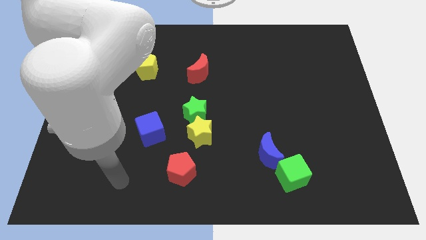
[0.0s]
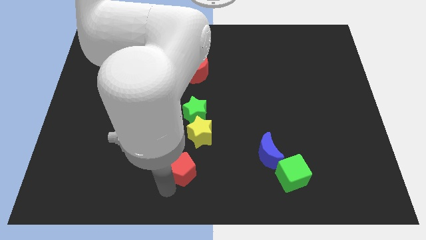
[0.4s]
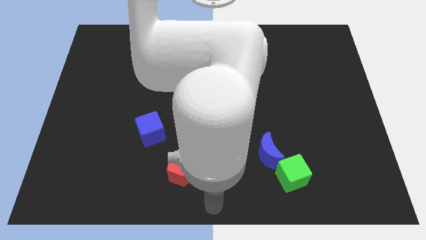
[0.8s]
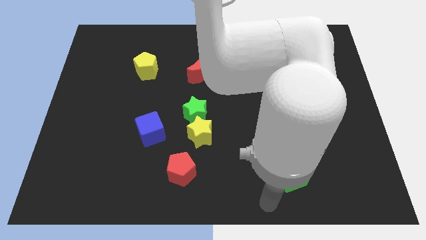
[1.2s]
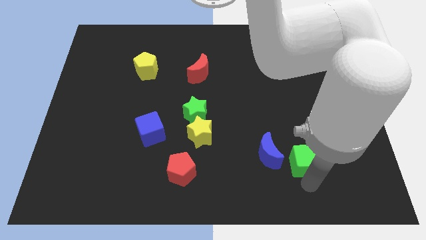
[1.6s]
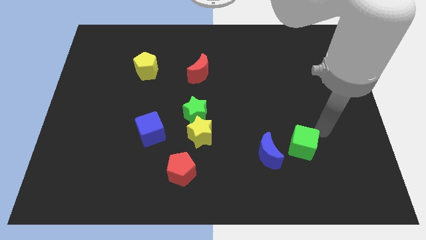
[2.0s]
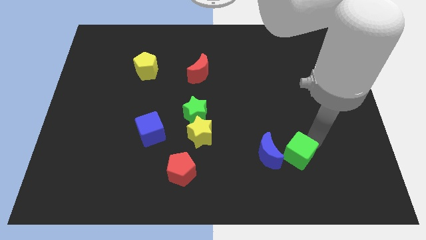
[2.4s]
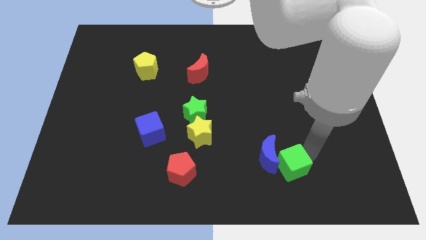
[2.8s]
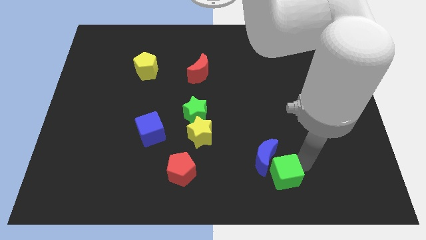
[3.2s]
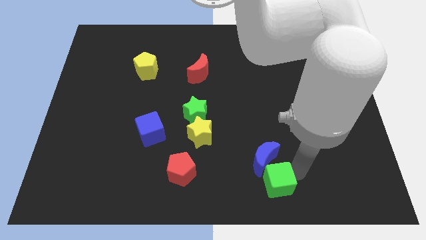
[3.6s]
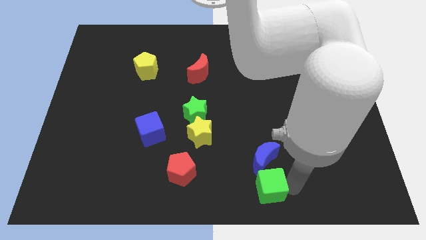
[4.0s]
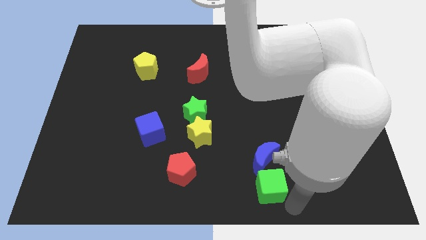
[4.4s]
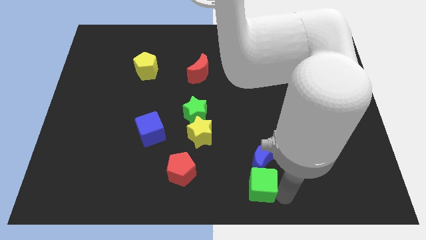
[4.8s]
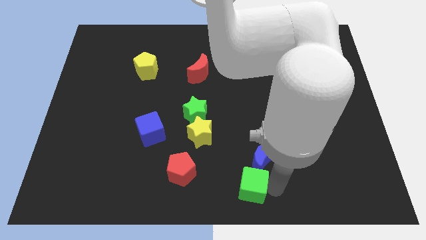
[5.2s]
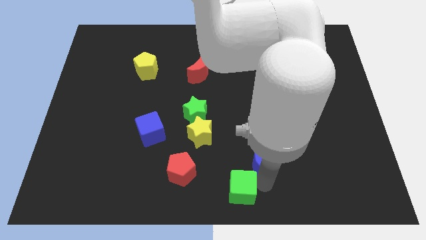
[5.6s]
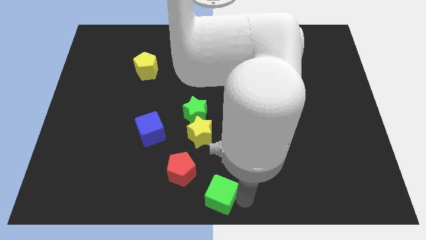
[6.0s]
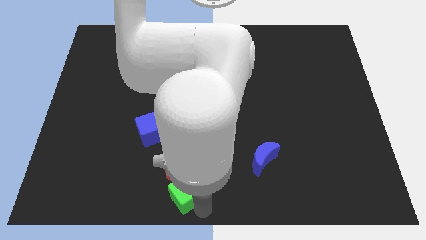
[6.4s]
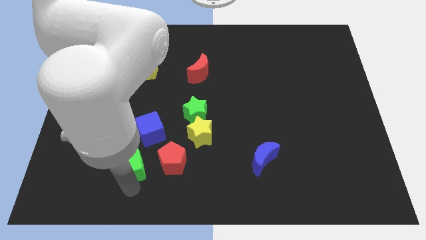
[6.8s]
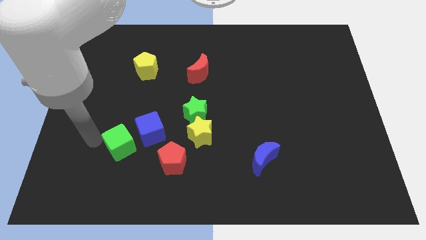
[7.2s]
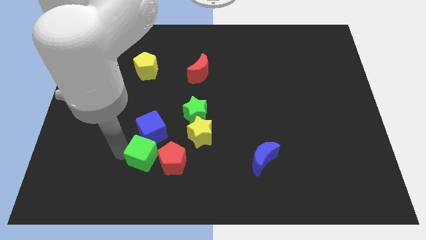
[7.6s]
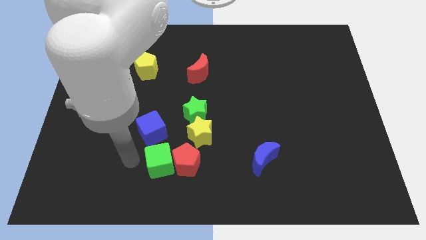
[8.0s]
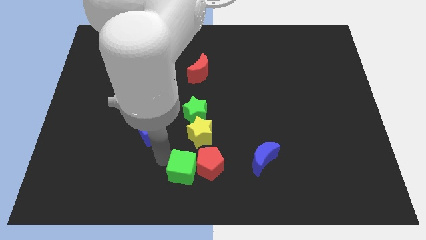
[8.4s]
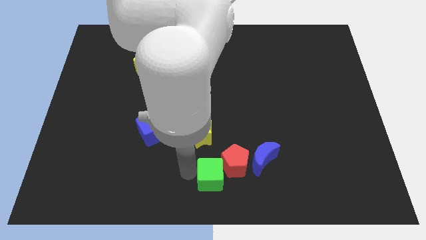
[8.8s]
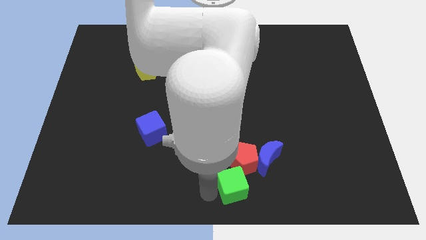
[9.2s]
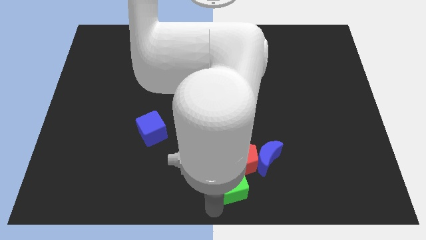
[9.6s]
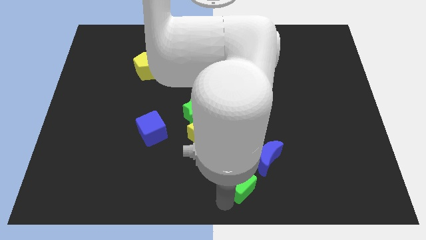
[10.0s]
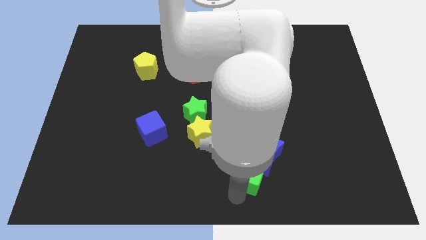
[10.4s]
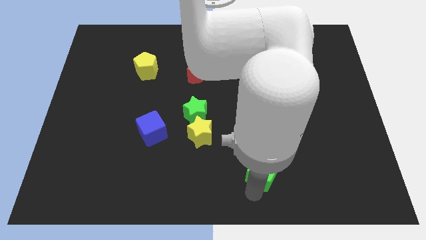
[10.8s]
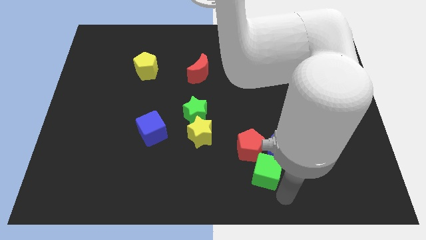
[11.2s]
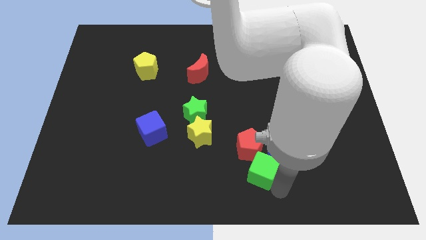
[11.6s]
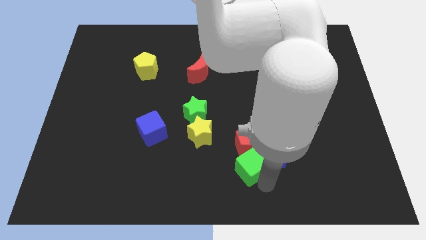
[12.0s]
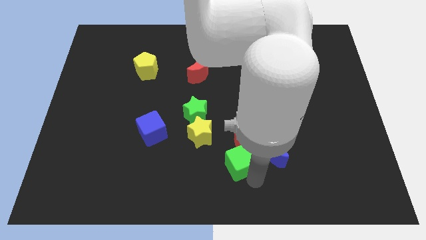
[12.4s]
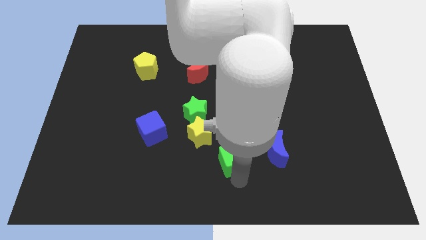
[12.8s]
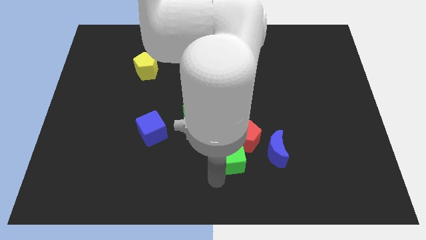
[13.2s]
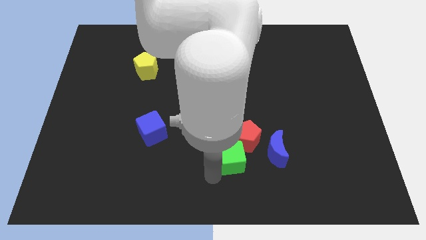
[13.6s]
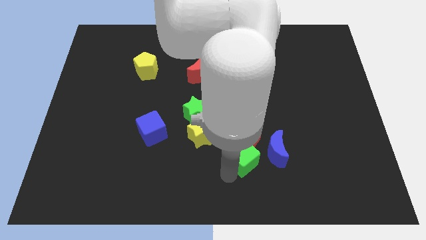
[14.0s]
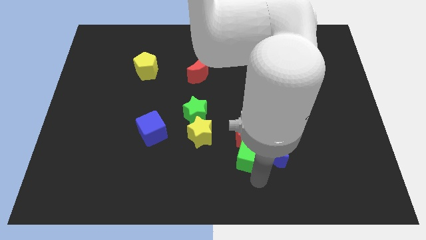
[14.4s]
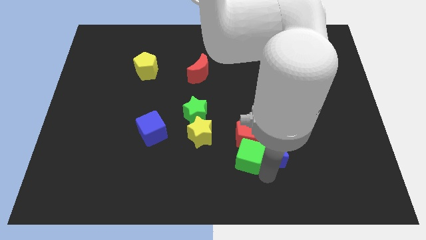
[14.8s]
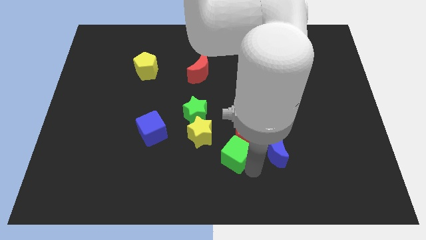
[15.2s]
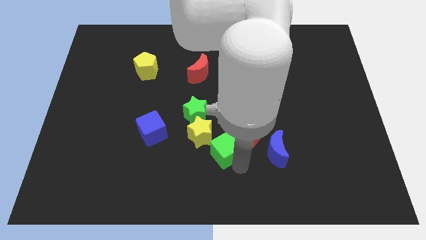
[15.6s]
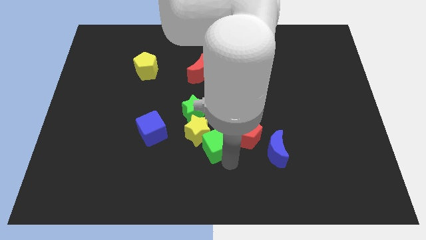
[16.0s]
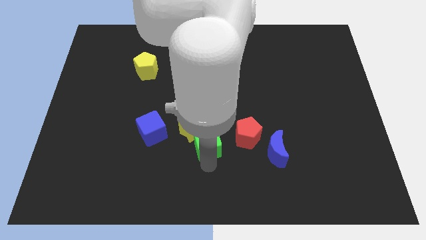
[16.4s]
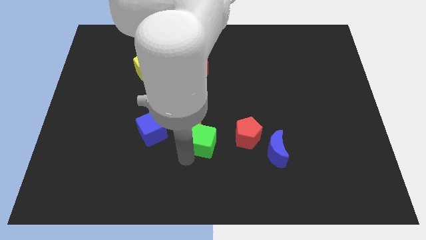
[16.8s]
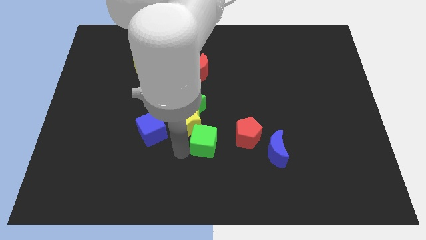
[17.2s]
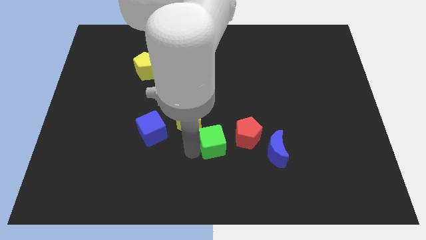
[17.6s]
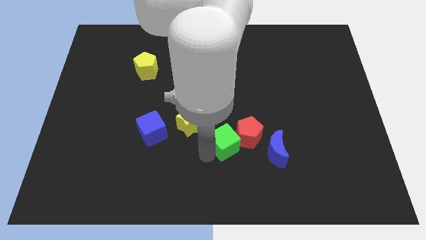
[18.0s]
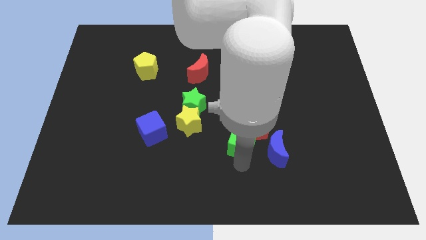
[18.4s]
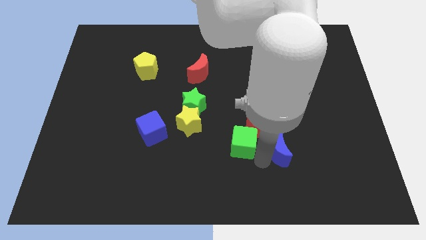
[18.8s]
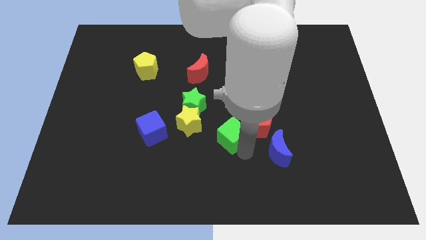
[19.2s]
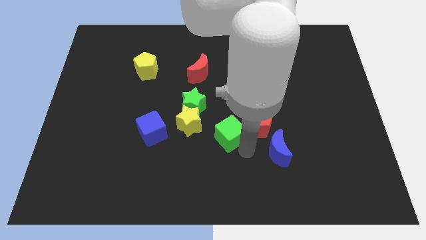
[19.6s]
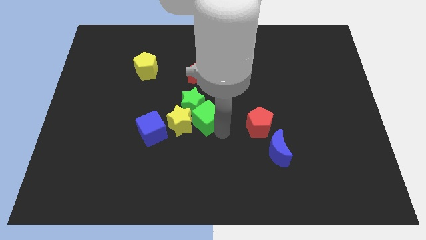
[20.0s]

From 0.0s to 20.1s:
put the green cube towards the green star

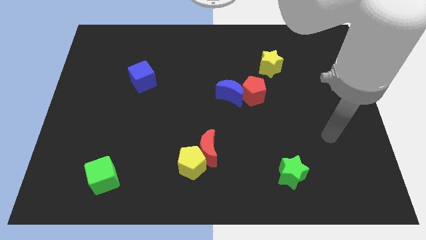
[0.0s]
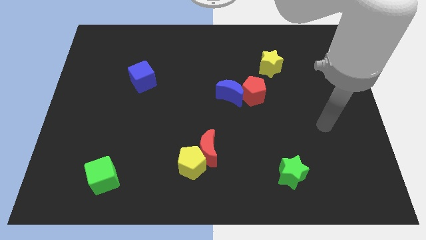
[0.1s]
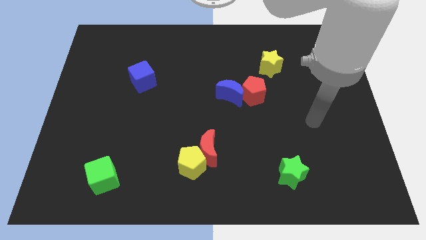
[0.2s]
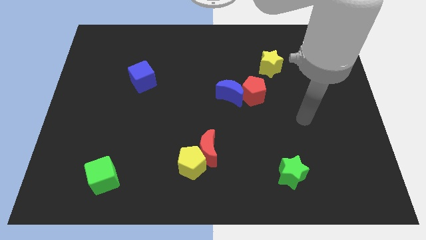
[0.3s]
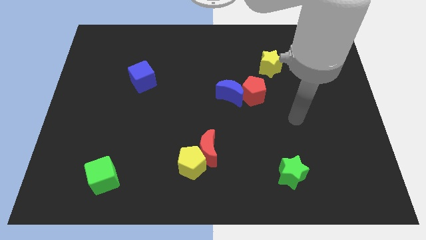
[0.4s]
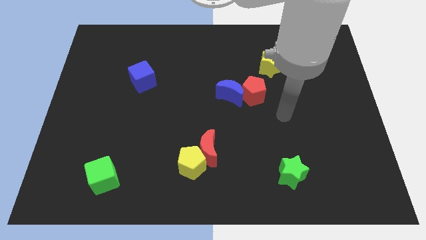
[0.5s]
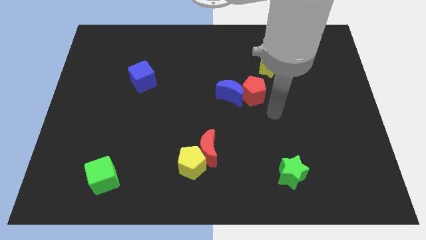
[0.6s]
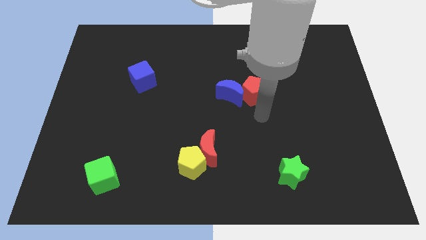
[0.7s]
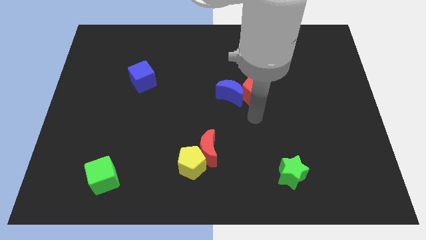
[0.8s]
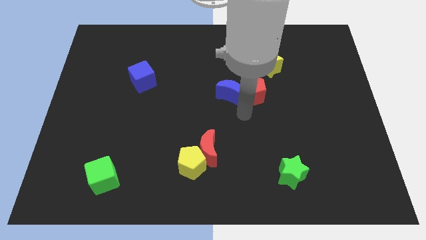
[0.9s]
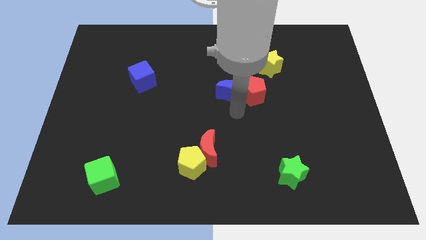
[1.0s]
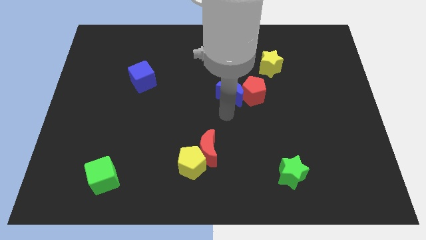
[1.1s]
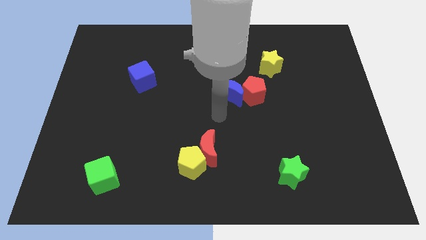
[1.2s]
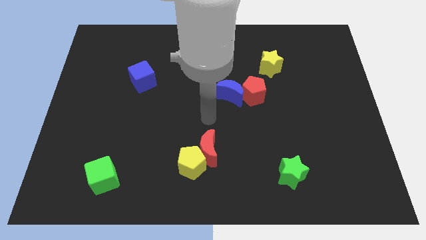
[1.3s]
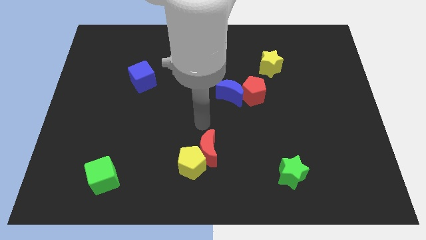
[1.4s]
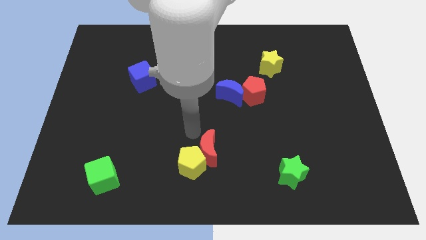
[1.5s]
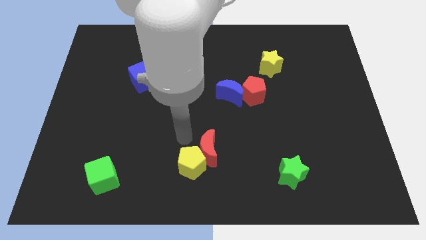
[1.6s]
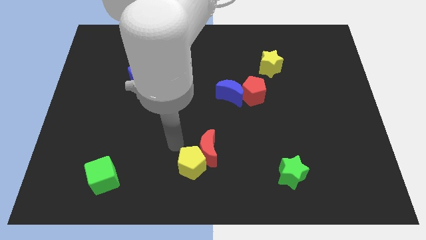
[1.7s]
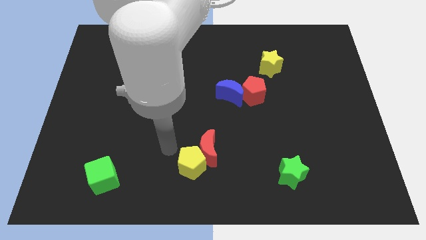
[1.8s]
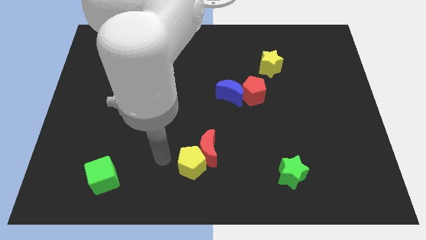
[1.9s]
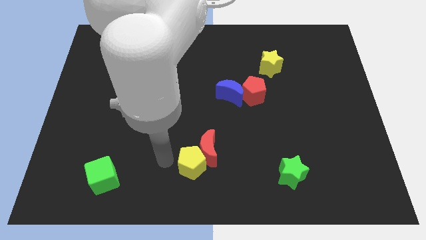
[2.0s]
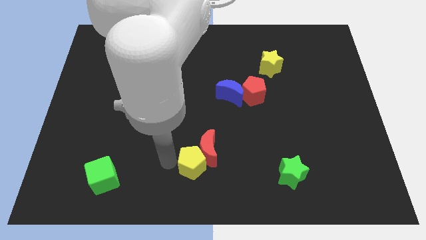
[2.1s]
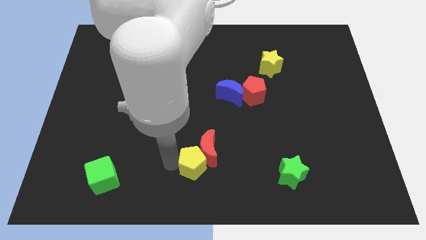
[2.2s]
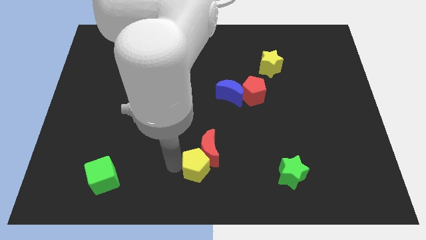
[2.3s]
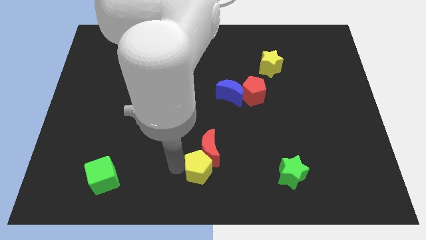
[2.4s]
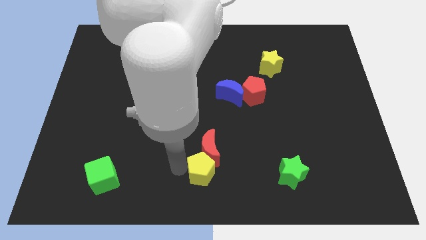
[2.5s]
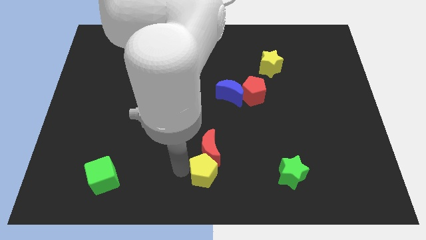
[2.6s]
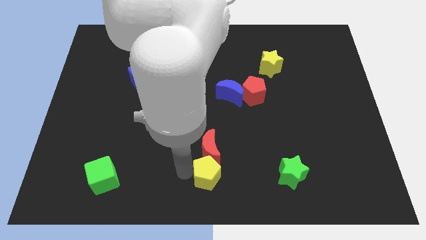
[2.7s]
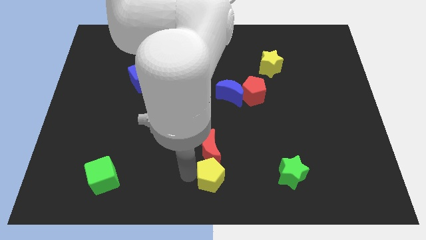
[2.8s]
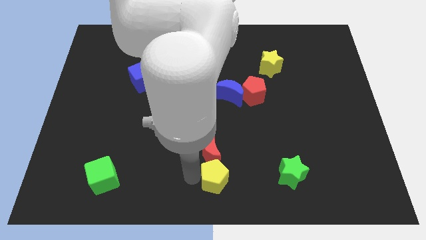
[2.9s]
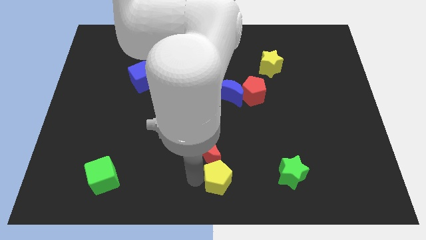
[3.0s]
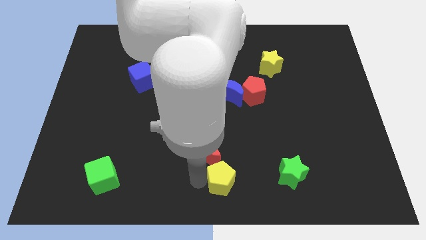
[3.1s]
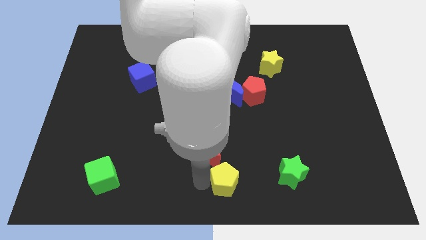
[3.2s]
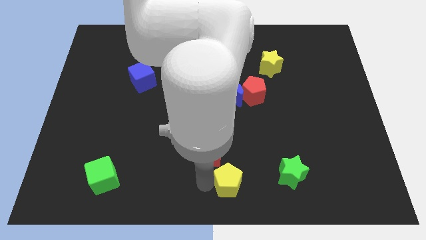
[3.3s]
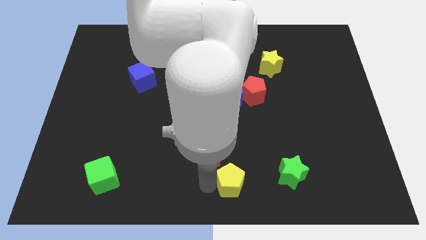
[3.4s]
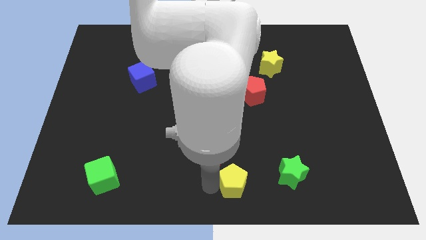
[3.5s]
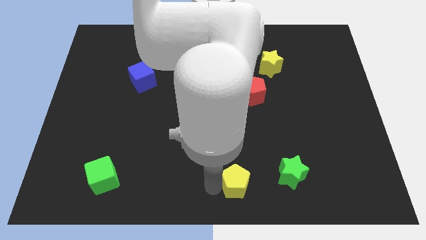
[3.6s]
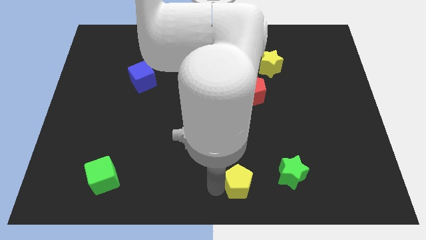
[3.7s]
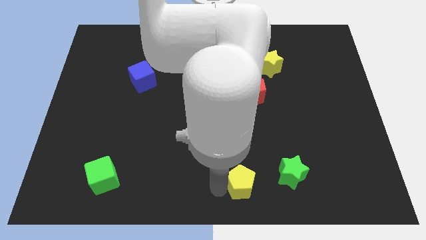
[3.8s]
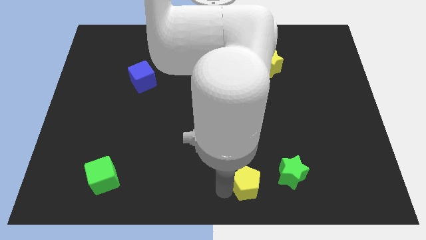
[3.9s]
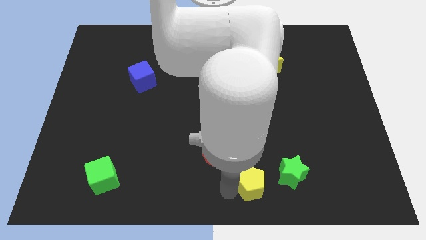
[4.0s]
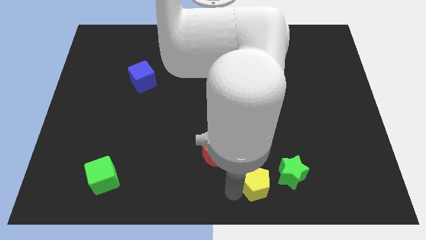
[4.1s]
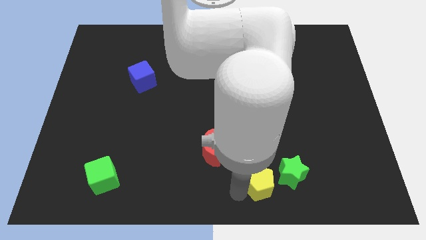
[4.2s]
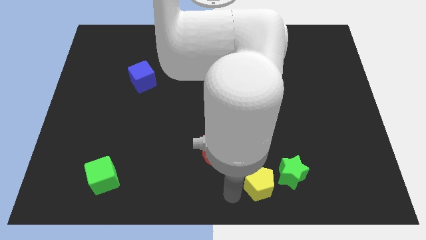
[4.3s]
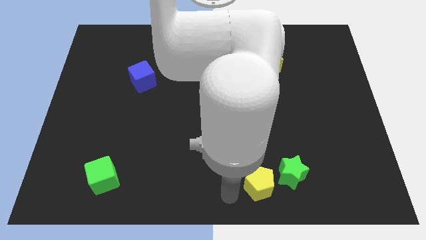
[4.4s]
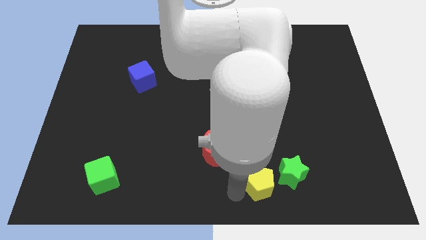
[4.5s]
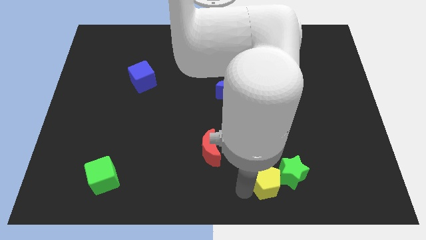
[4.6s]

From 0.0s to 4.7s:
move the yellow pentagon close to the green star
